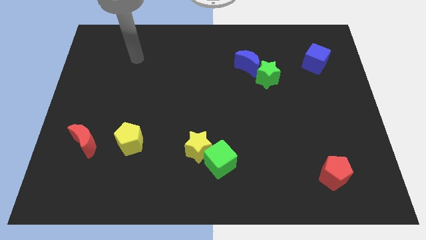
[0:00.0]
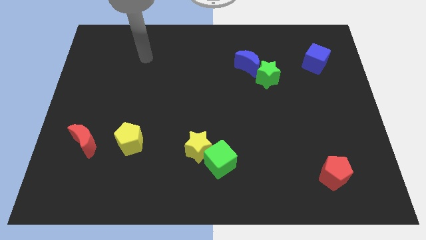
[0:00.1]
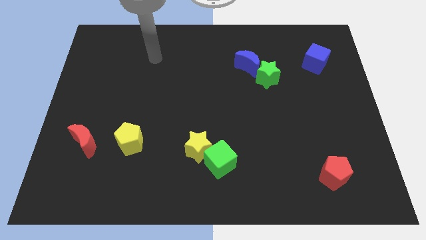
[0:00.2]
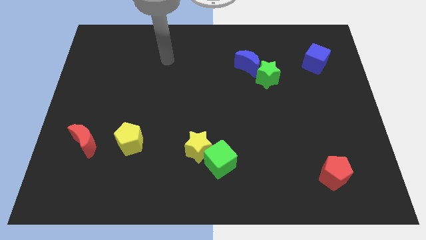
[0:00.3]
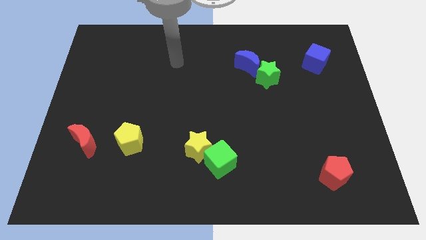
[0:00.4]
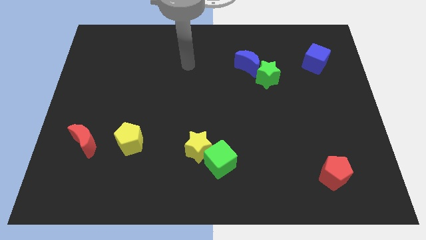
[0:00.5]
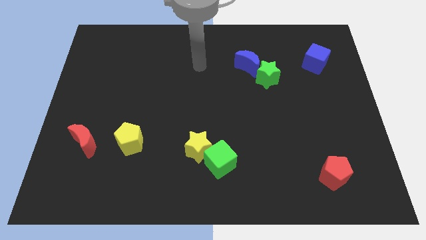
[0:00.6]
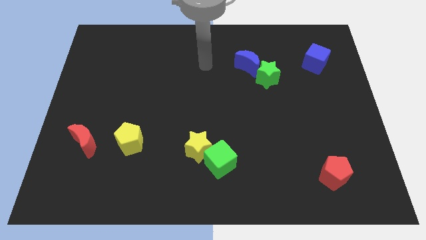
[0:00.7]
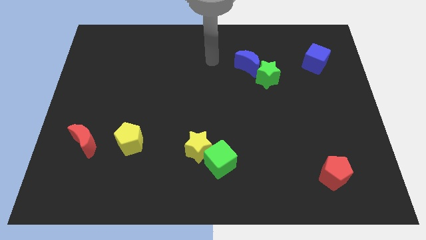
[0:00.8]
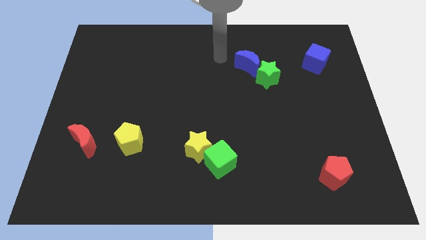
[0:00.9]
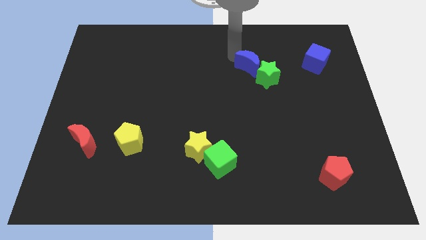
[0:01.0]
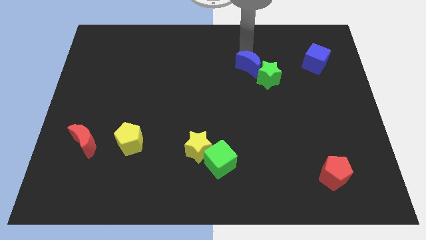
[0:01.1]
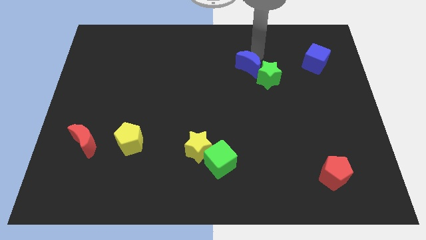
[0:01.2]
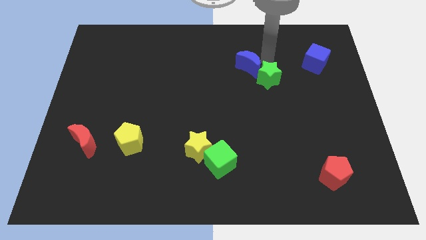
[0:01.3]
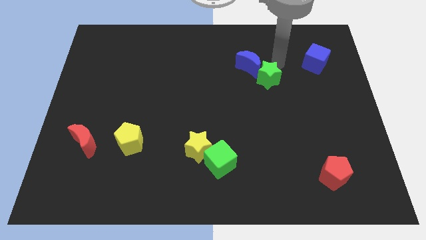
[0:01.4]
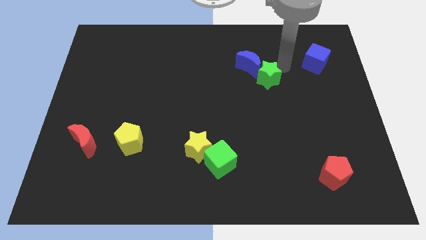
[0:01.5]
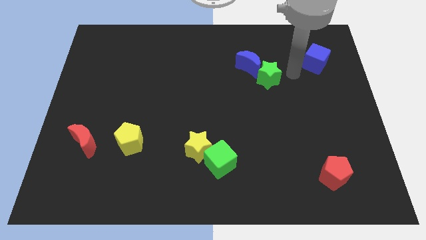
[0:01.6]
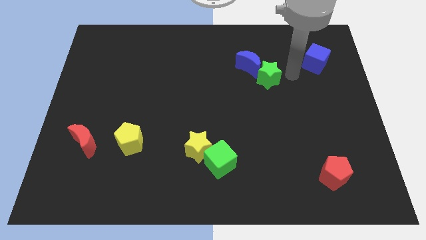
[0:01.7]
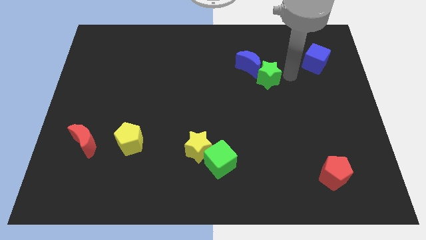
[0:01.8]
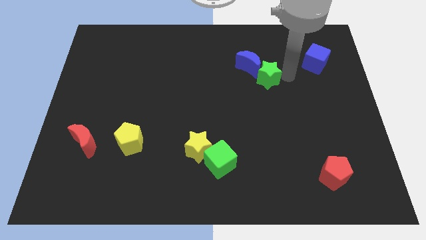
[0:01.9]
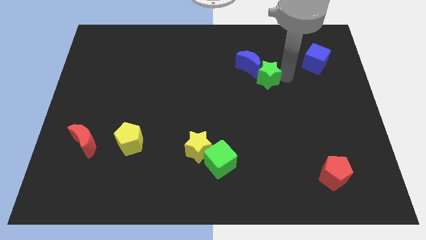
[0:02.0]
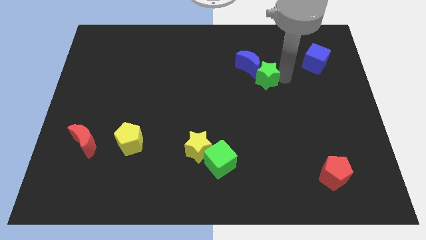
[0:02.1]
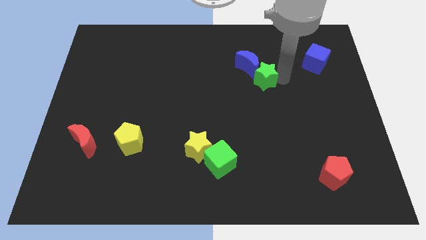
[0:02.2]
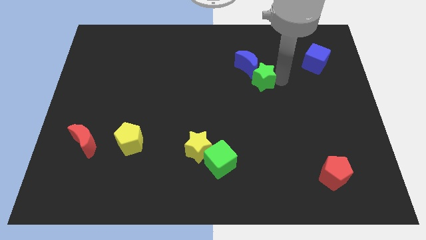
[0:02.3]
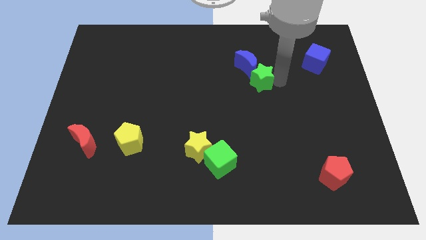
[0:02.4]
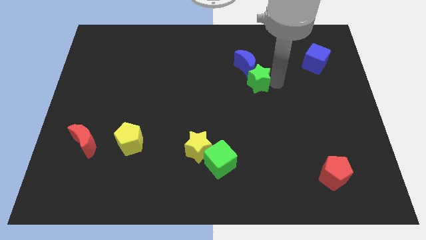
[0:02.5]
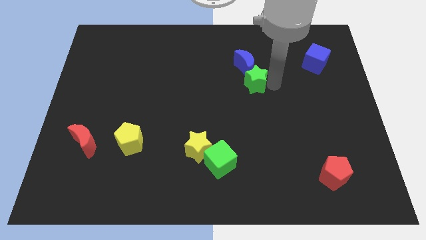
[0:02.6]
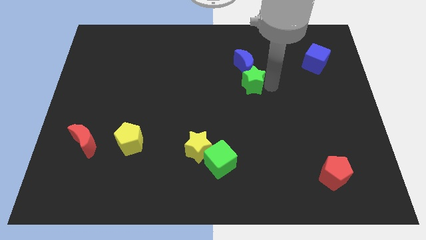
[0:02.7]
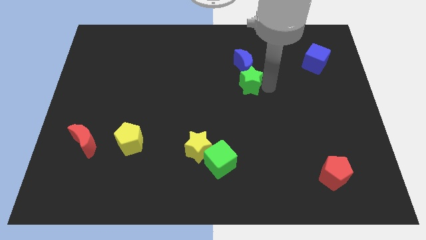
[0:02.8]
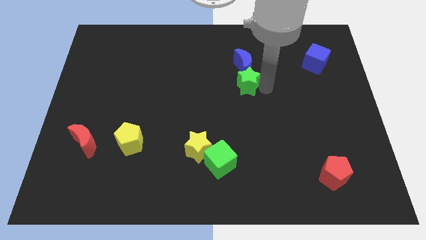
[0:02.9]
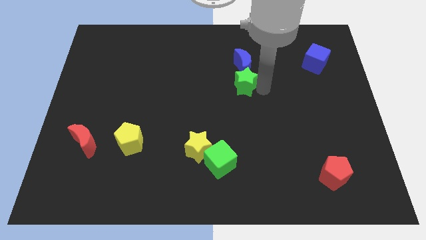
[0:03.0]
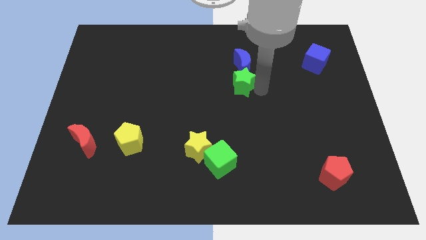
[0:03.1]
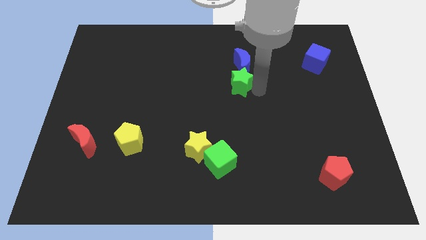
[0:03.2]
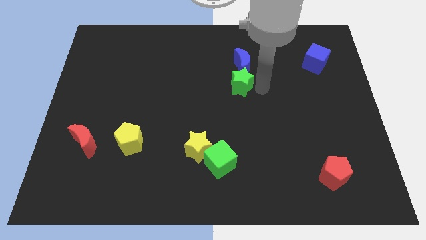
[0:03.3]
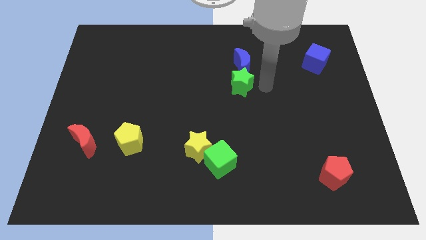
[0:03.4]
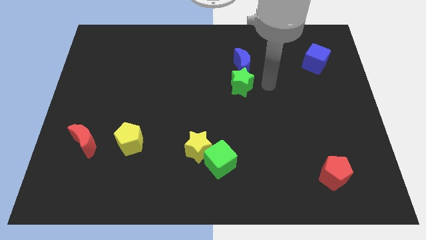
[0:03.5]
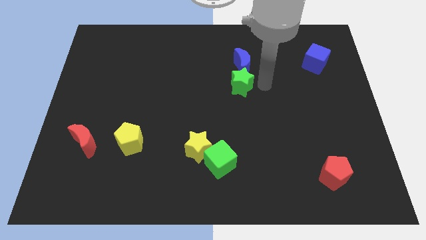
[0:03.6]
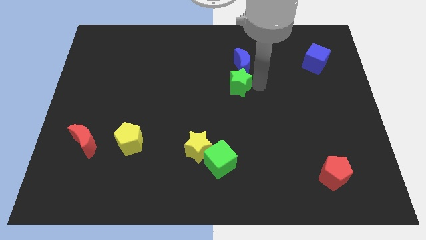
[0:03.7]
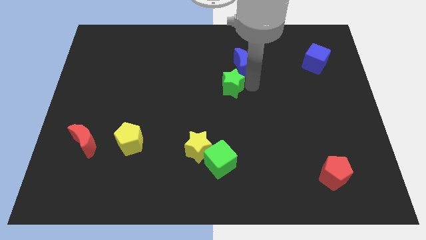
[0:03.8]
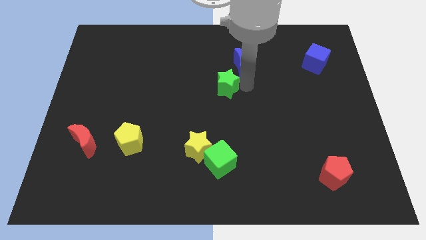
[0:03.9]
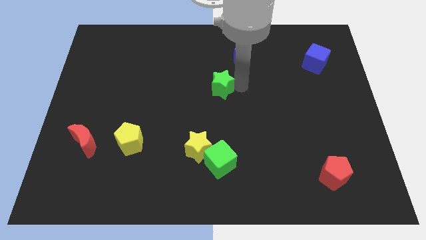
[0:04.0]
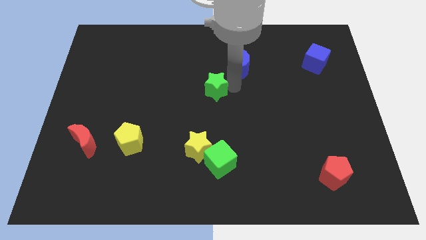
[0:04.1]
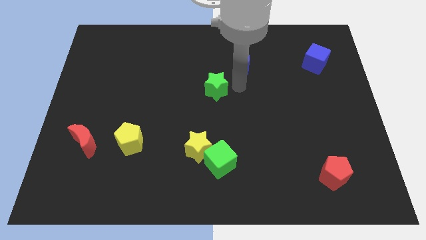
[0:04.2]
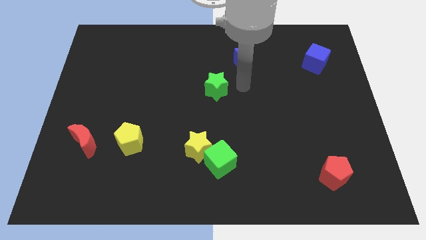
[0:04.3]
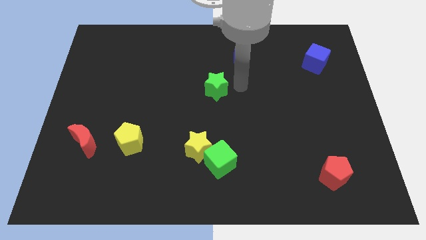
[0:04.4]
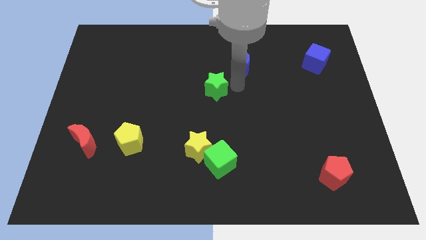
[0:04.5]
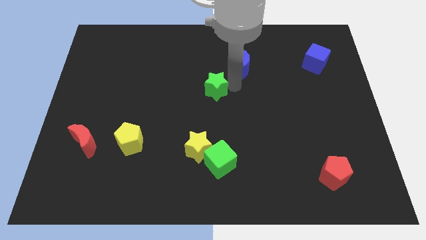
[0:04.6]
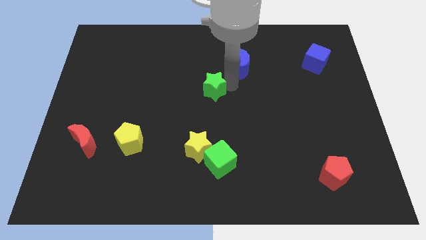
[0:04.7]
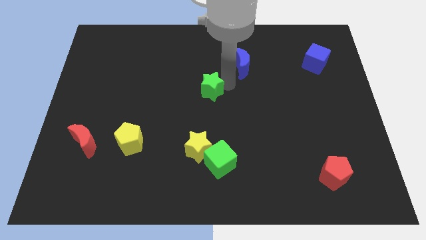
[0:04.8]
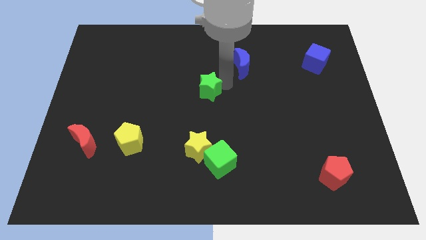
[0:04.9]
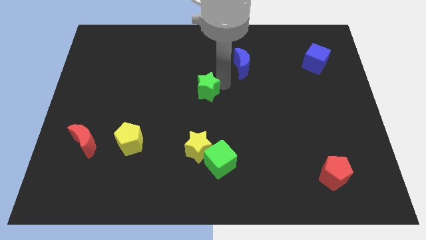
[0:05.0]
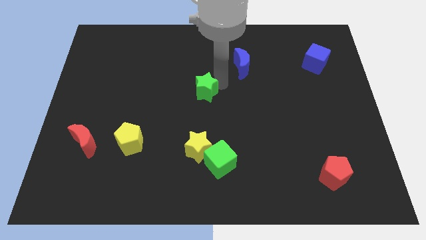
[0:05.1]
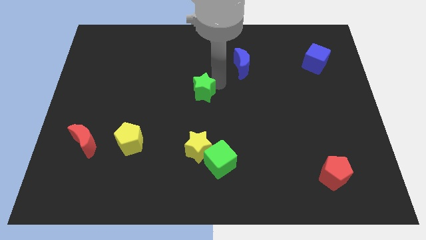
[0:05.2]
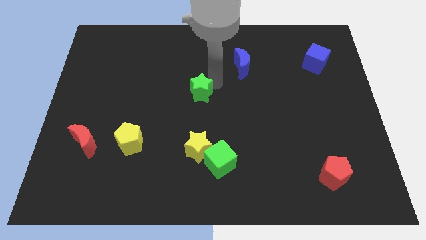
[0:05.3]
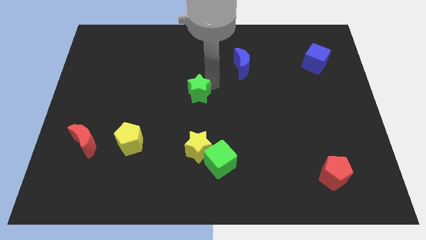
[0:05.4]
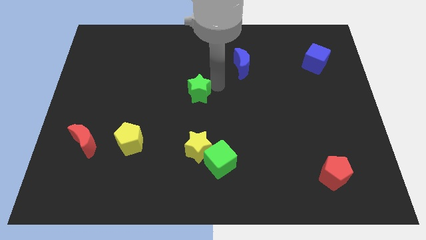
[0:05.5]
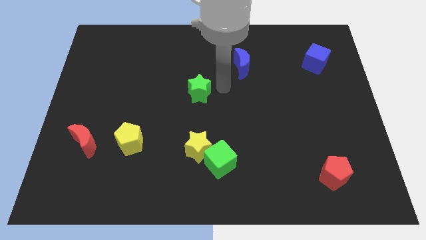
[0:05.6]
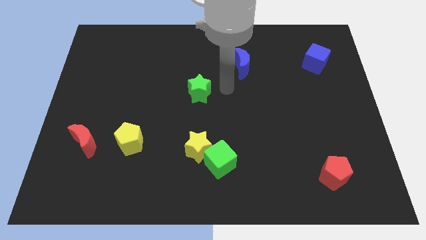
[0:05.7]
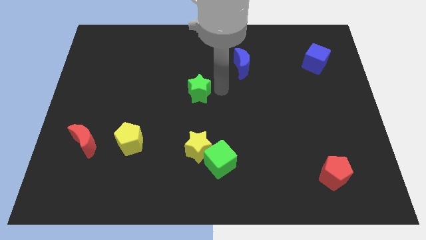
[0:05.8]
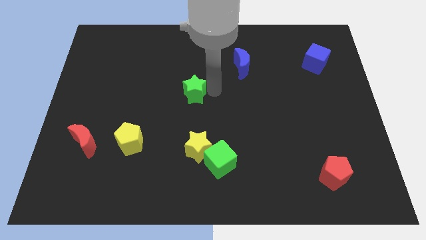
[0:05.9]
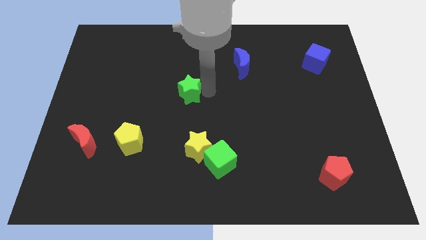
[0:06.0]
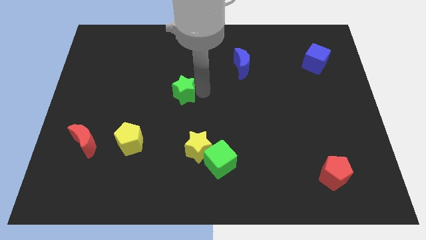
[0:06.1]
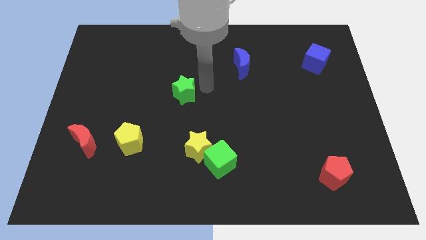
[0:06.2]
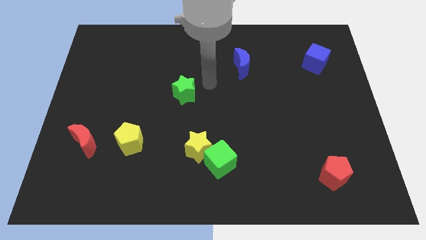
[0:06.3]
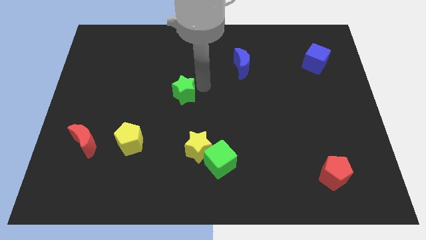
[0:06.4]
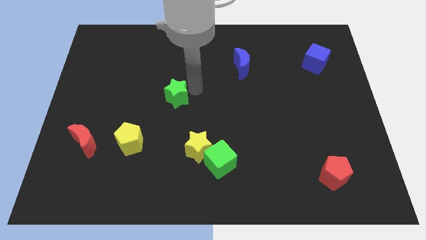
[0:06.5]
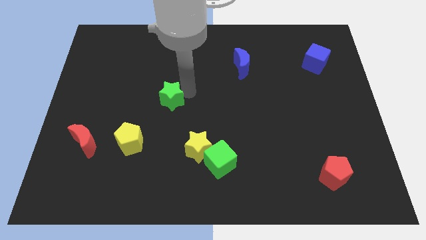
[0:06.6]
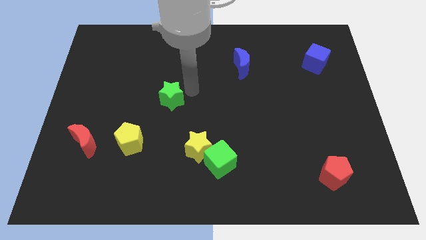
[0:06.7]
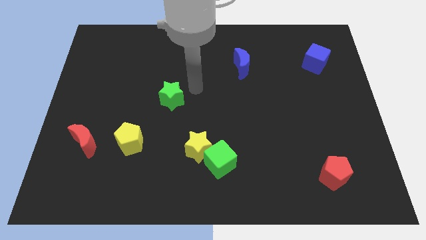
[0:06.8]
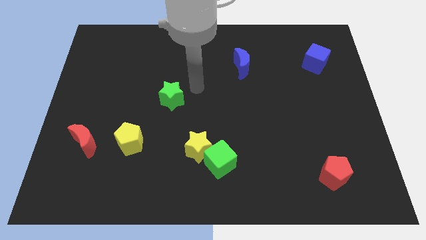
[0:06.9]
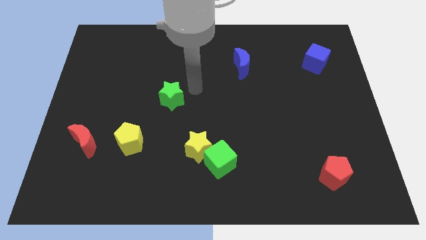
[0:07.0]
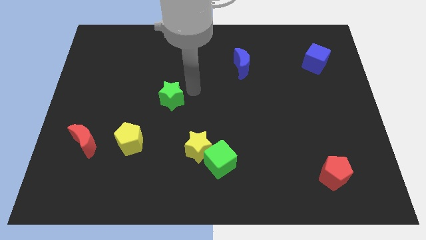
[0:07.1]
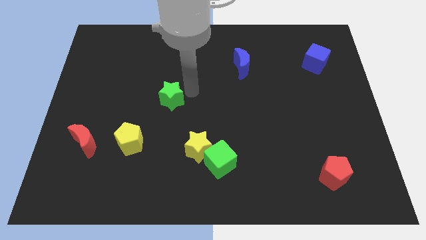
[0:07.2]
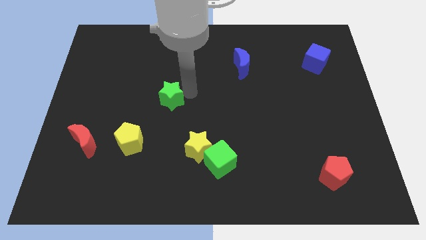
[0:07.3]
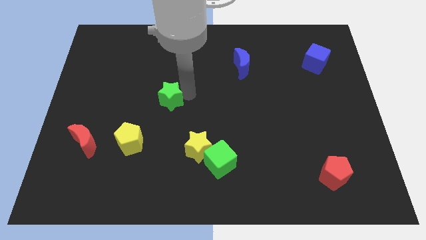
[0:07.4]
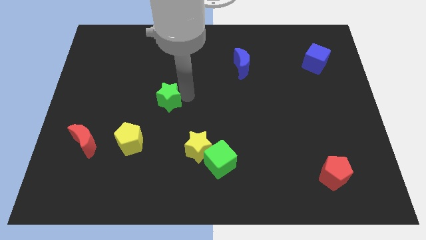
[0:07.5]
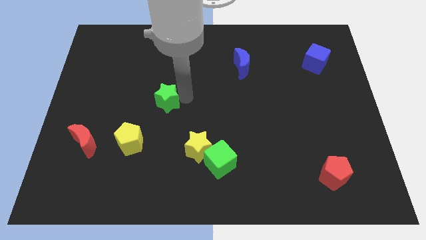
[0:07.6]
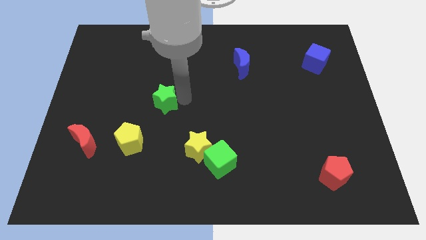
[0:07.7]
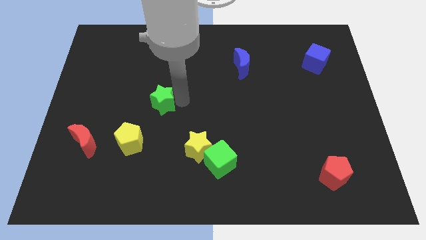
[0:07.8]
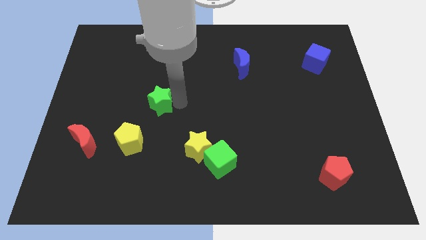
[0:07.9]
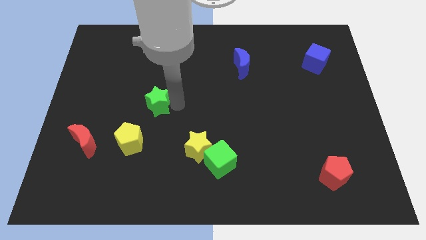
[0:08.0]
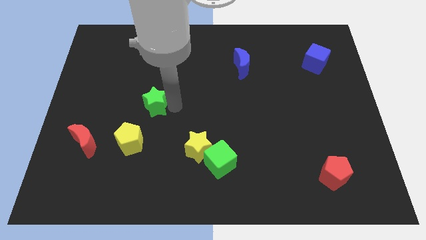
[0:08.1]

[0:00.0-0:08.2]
put the green star above the yellow pentagon
